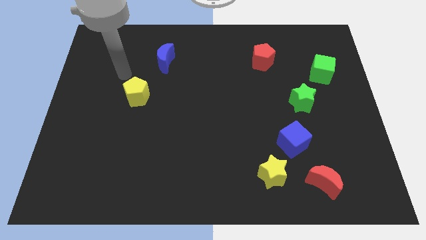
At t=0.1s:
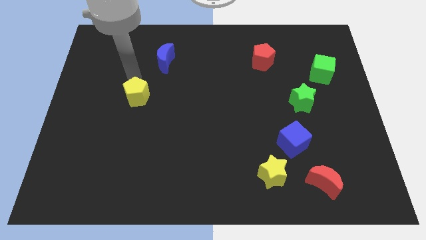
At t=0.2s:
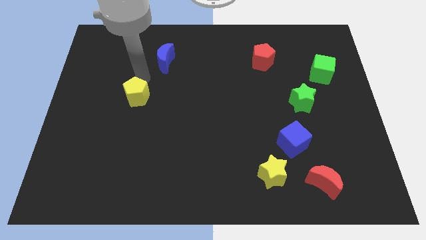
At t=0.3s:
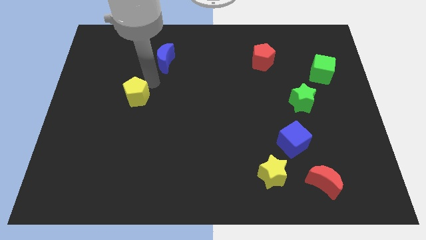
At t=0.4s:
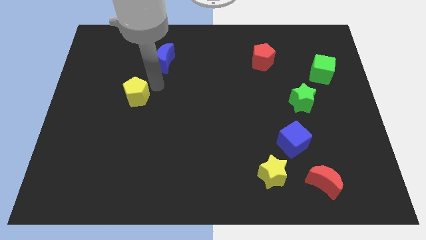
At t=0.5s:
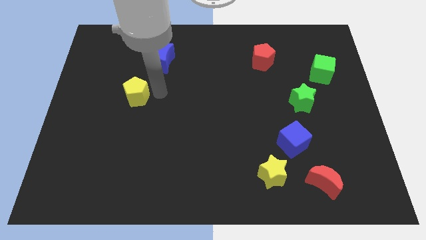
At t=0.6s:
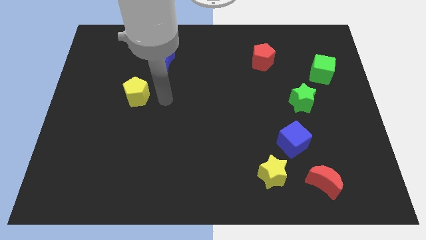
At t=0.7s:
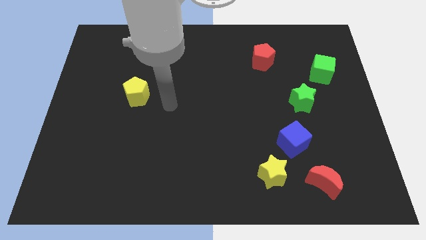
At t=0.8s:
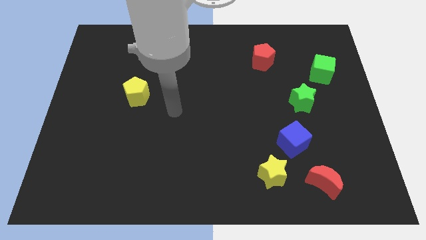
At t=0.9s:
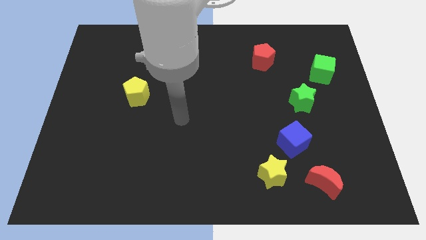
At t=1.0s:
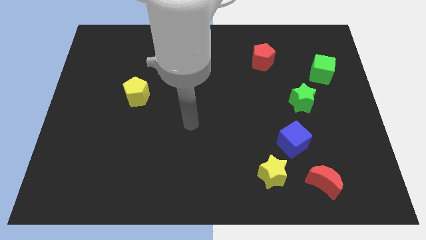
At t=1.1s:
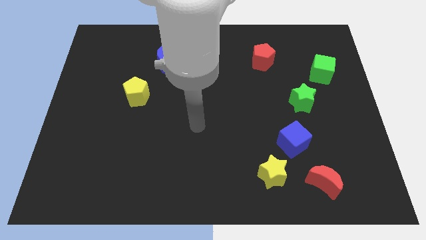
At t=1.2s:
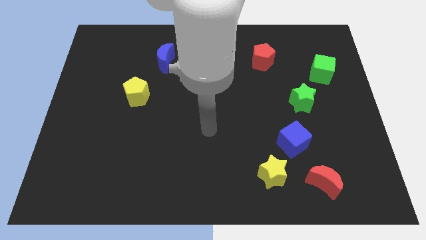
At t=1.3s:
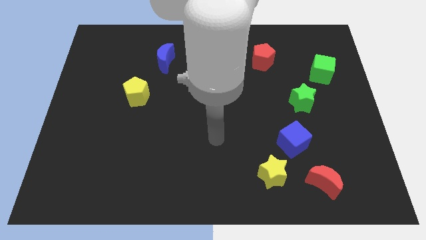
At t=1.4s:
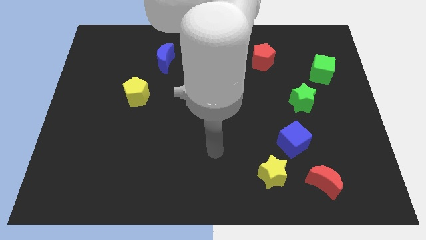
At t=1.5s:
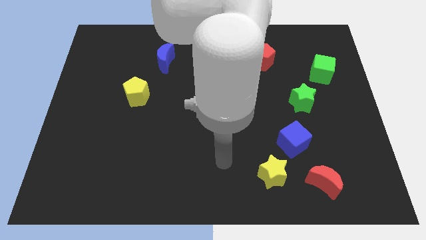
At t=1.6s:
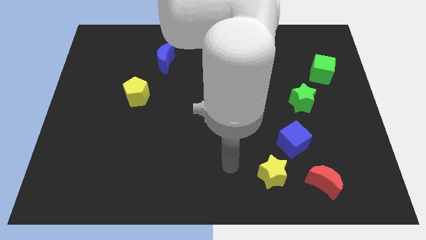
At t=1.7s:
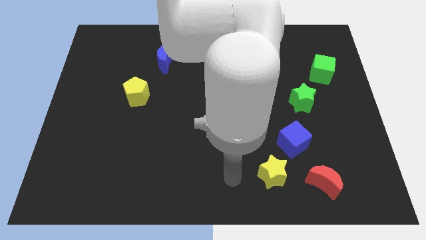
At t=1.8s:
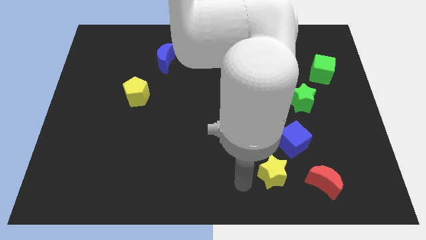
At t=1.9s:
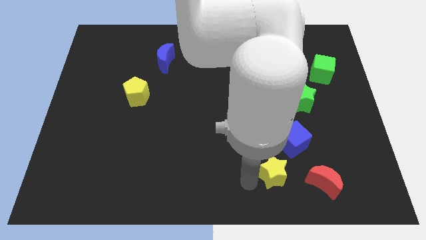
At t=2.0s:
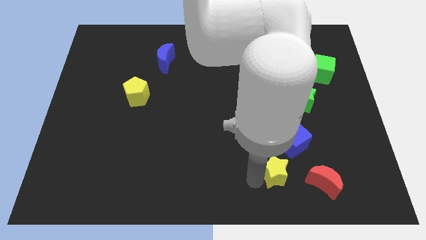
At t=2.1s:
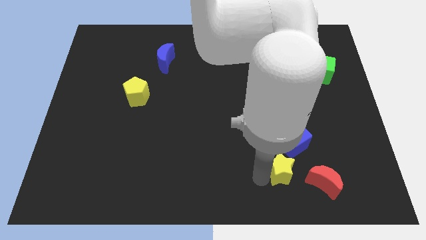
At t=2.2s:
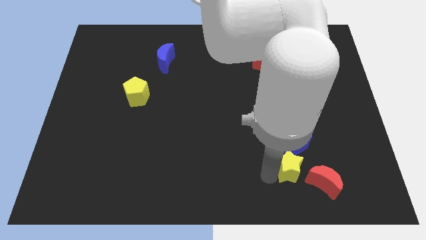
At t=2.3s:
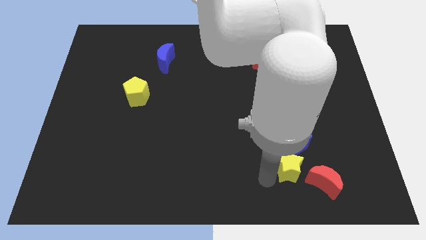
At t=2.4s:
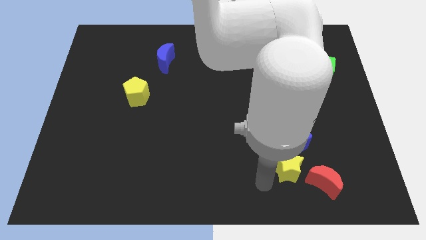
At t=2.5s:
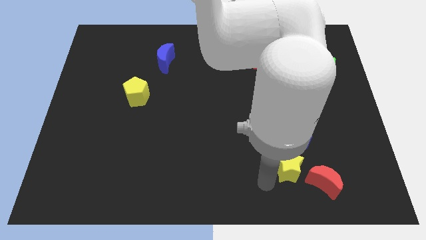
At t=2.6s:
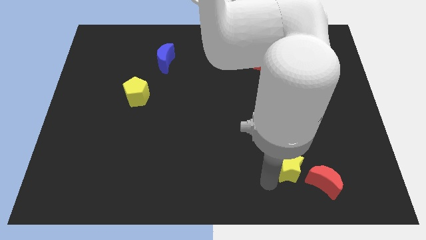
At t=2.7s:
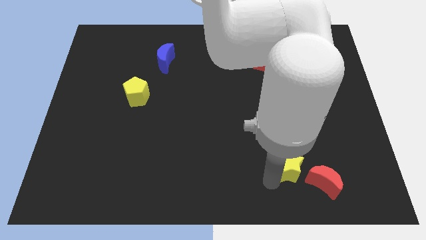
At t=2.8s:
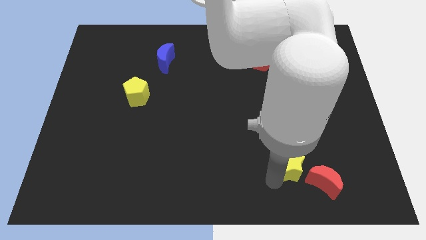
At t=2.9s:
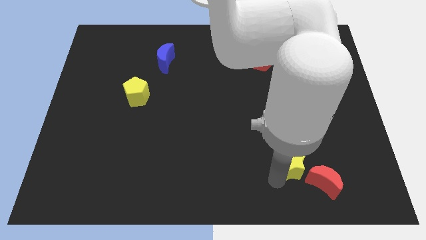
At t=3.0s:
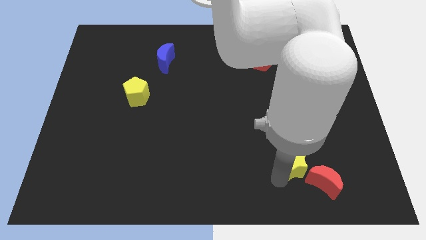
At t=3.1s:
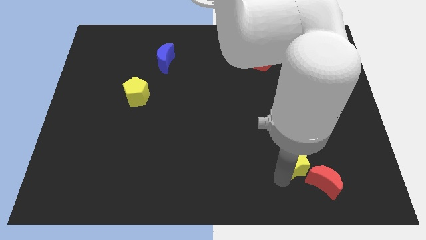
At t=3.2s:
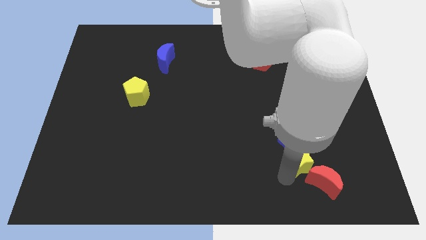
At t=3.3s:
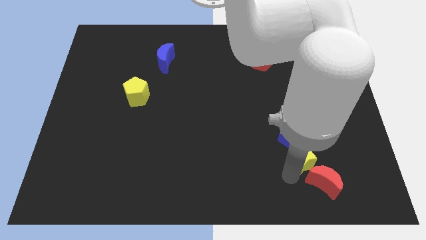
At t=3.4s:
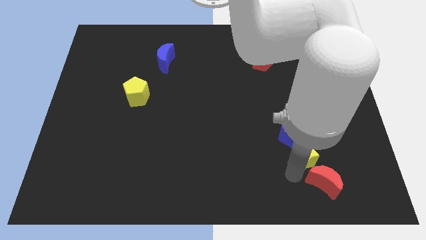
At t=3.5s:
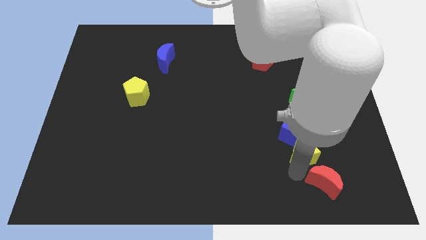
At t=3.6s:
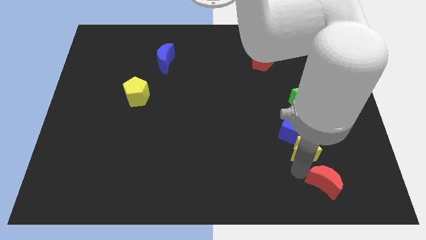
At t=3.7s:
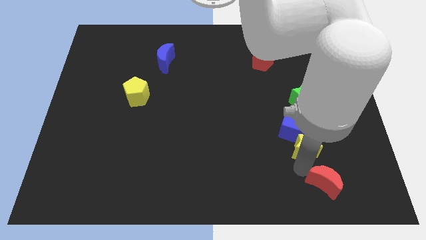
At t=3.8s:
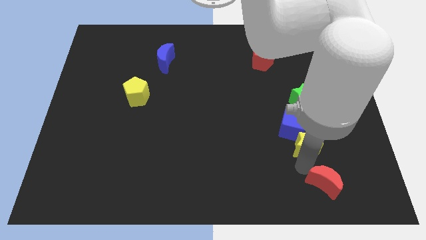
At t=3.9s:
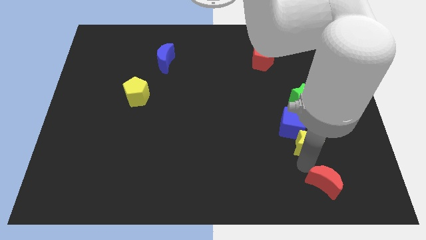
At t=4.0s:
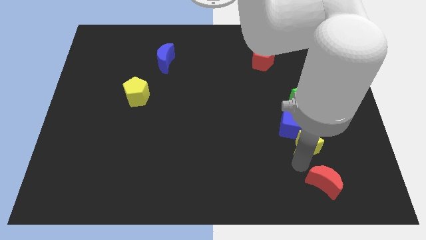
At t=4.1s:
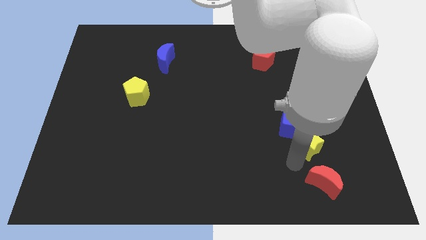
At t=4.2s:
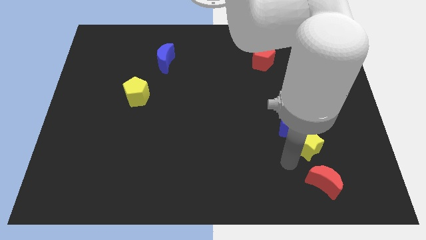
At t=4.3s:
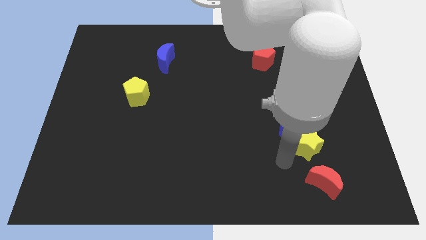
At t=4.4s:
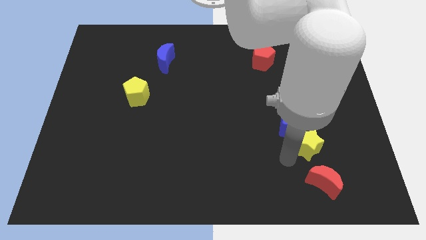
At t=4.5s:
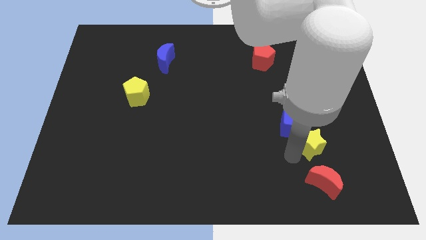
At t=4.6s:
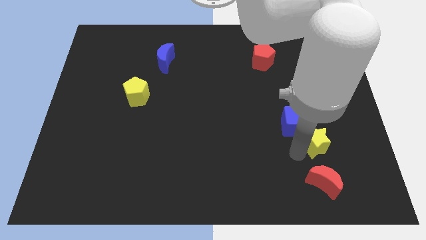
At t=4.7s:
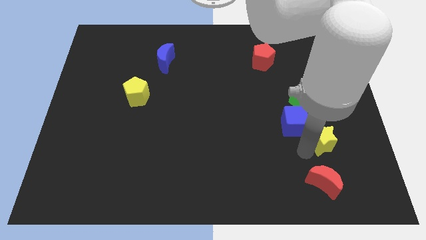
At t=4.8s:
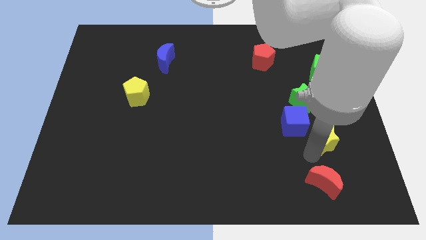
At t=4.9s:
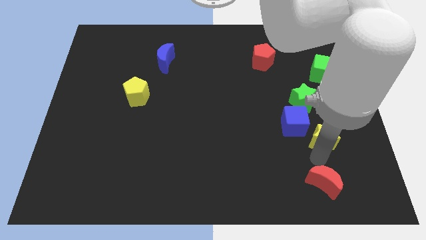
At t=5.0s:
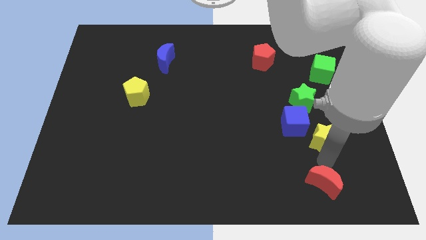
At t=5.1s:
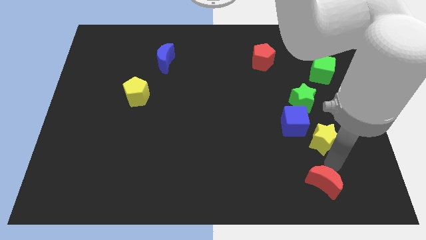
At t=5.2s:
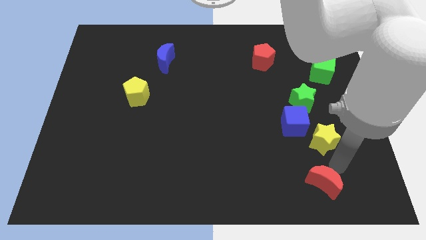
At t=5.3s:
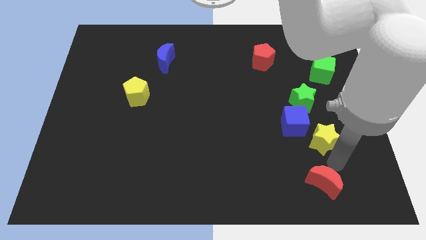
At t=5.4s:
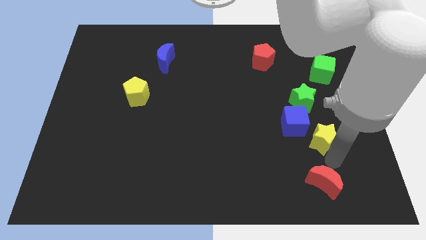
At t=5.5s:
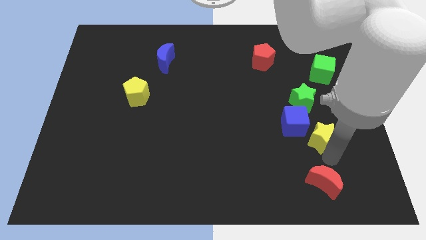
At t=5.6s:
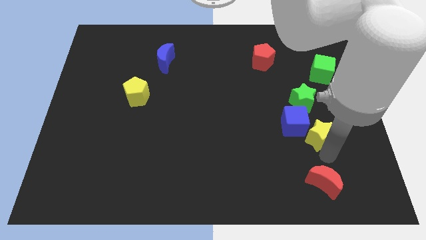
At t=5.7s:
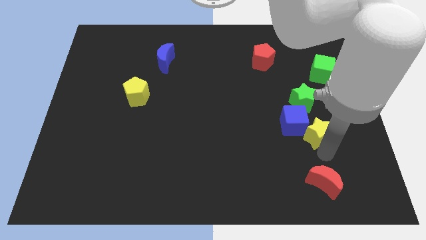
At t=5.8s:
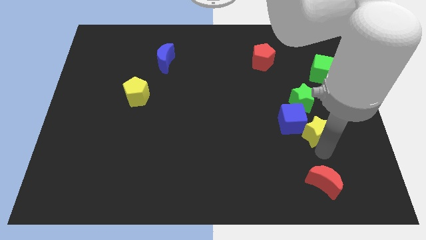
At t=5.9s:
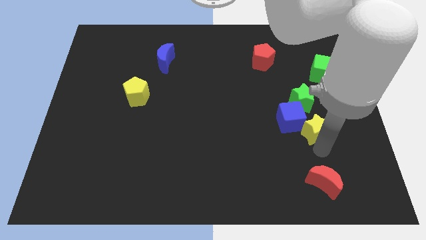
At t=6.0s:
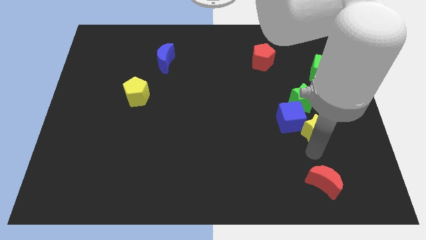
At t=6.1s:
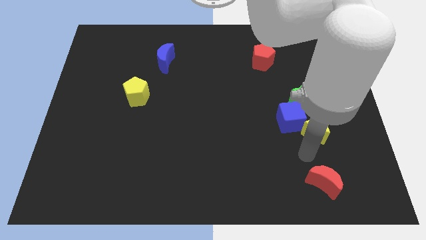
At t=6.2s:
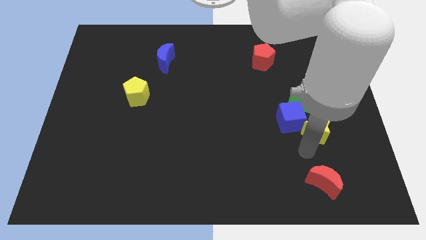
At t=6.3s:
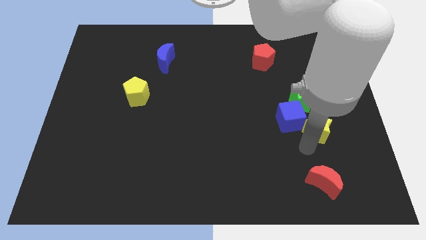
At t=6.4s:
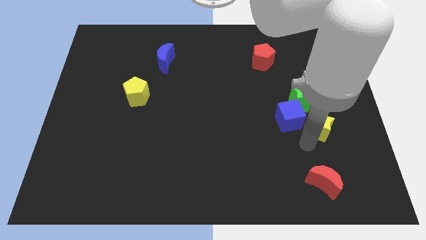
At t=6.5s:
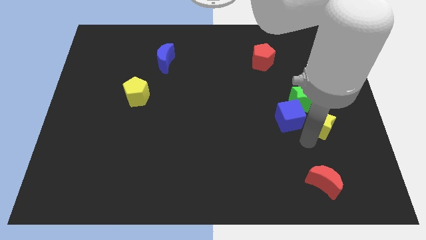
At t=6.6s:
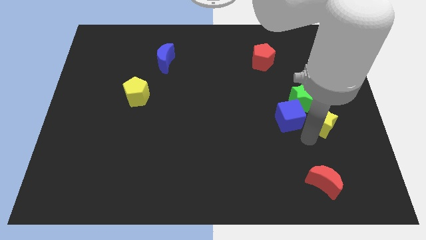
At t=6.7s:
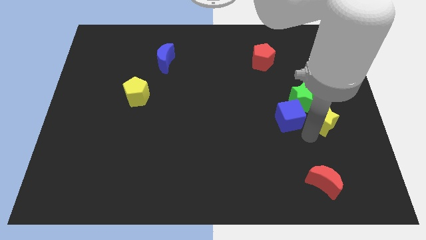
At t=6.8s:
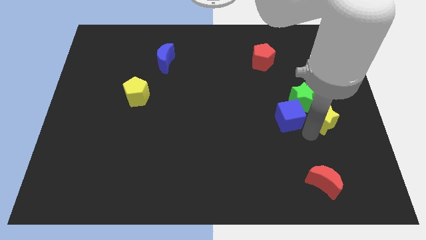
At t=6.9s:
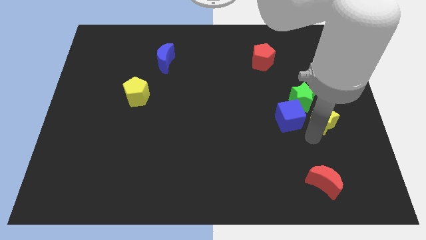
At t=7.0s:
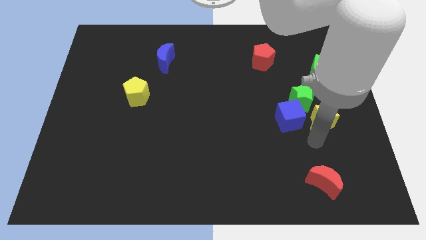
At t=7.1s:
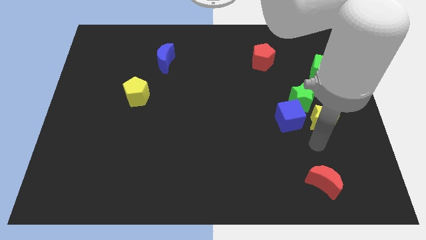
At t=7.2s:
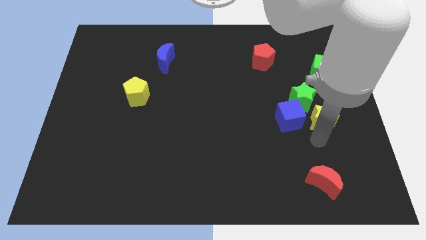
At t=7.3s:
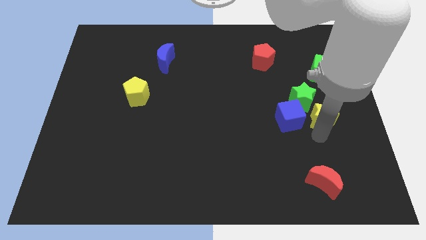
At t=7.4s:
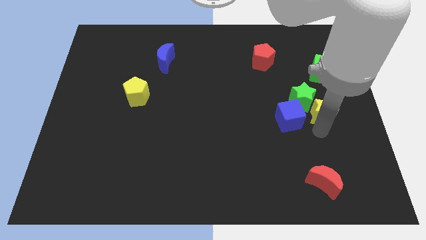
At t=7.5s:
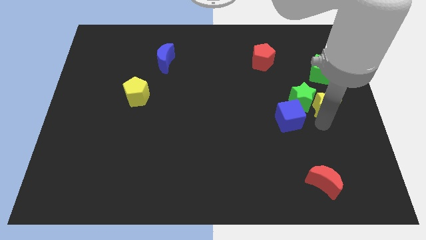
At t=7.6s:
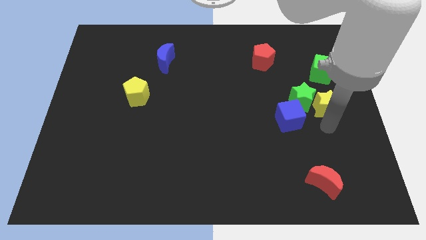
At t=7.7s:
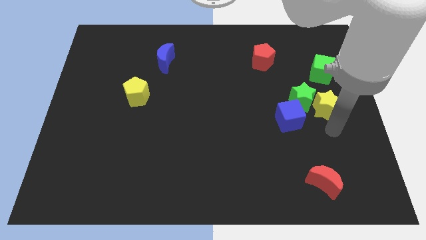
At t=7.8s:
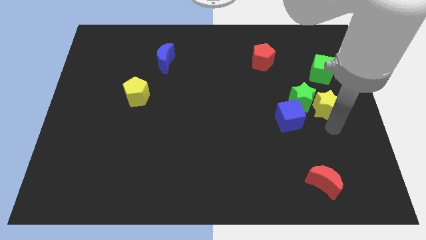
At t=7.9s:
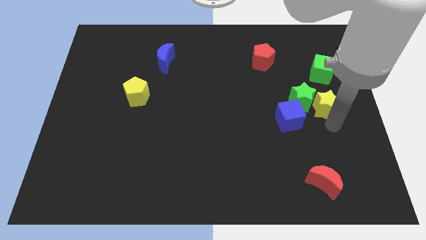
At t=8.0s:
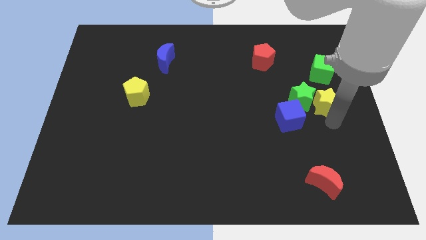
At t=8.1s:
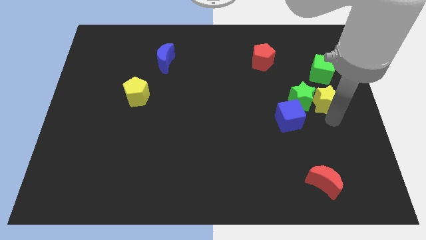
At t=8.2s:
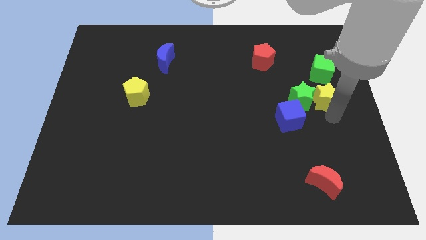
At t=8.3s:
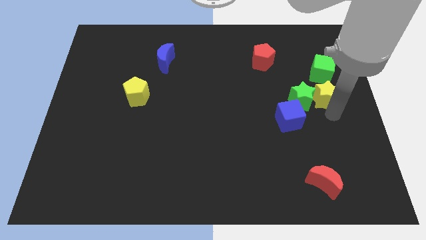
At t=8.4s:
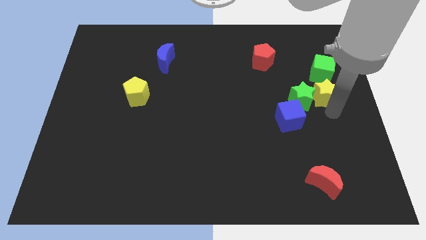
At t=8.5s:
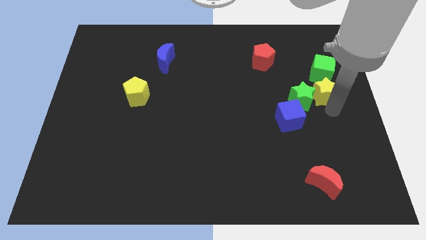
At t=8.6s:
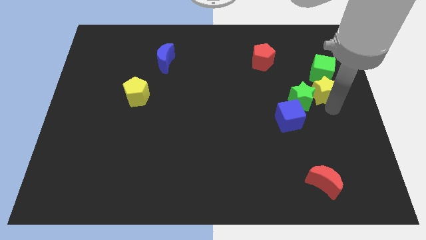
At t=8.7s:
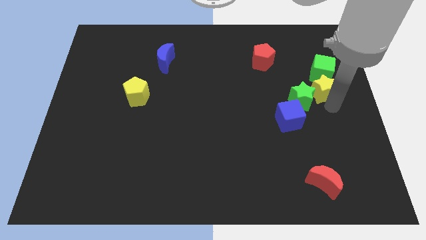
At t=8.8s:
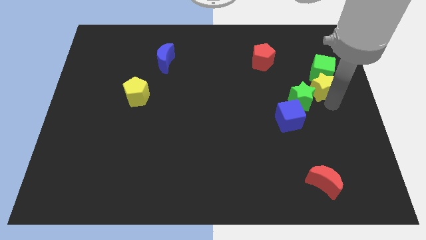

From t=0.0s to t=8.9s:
push the yellow star to the green cube
